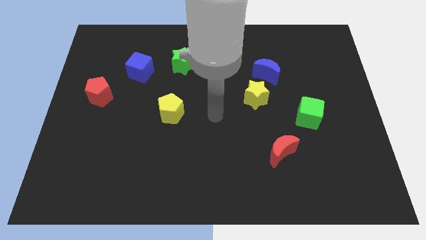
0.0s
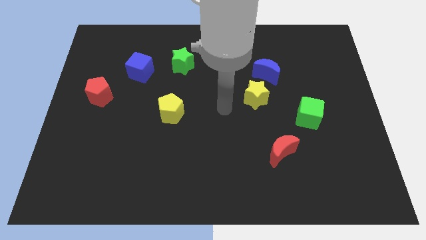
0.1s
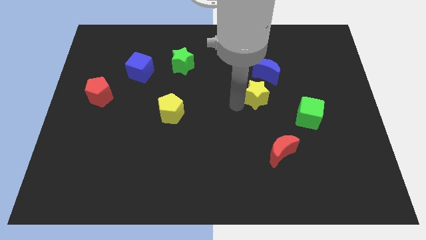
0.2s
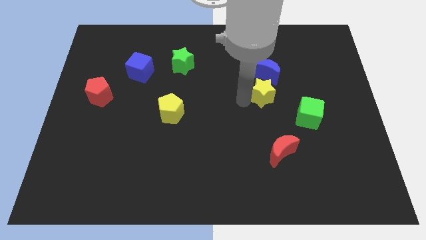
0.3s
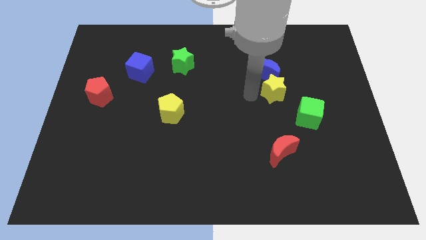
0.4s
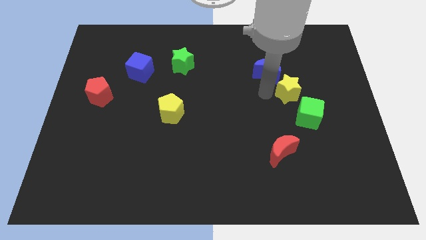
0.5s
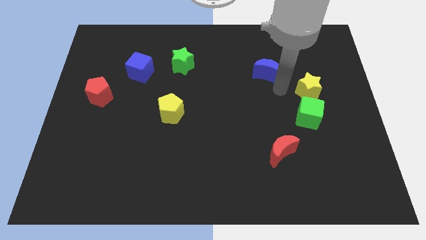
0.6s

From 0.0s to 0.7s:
pull the blue moon apart from the yellow star

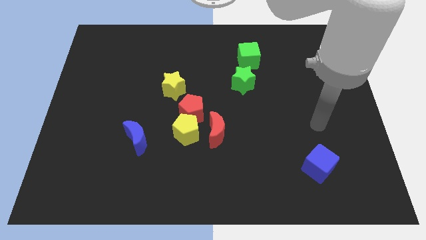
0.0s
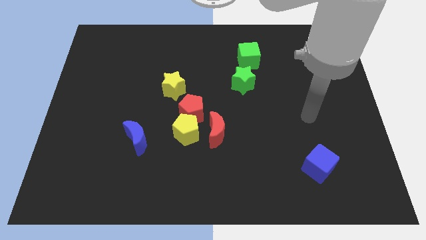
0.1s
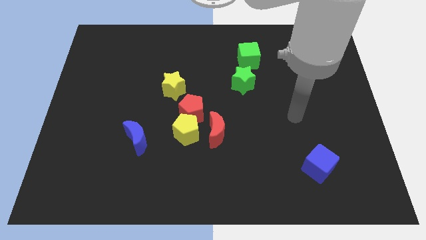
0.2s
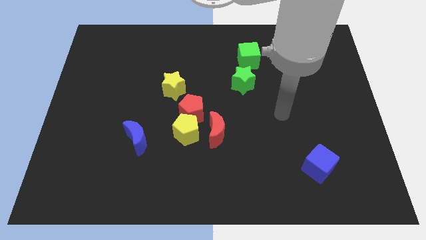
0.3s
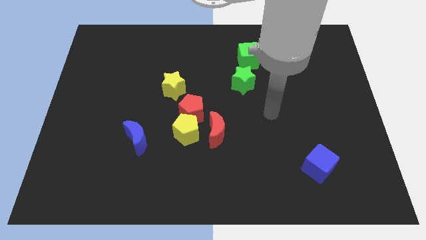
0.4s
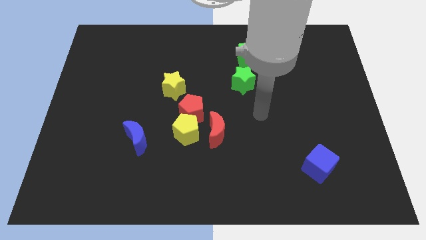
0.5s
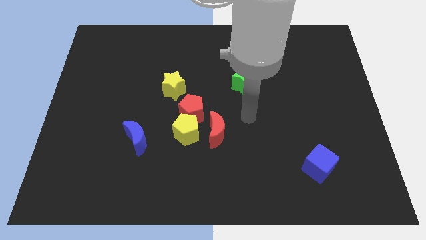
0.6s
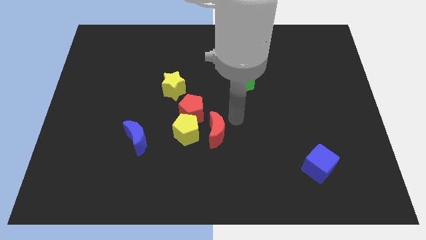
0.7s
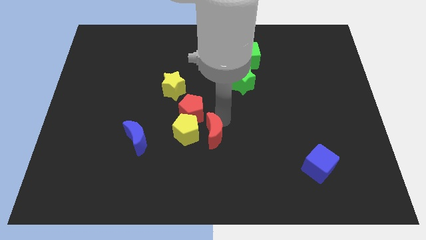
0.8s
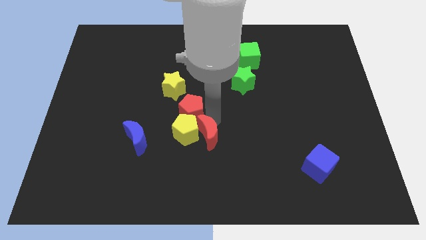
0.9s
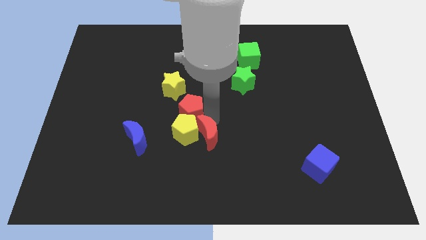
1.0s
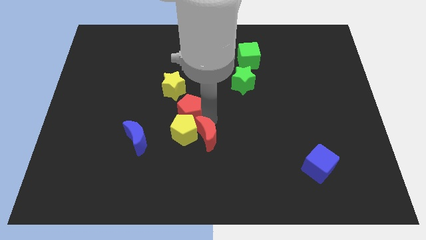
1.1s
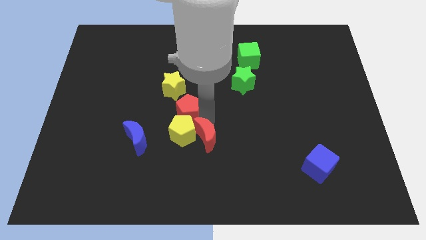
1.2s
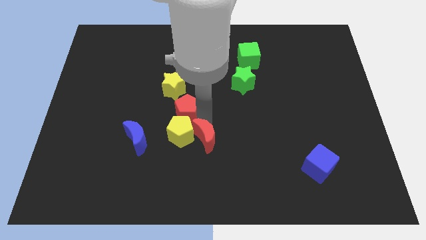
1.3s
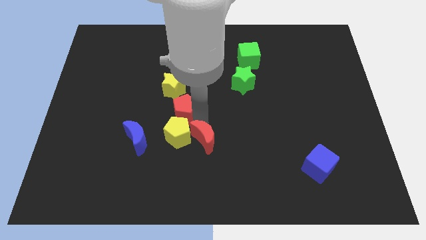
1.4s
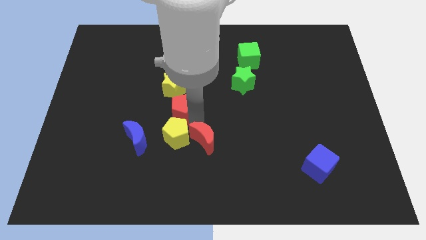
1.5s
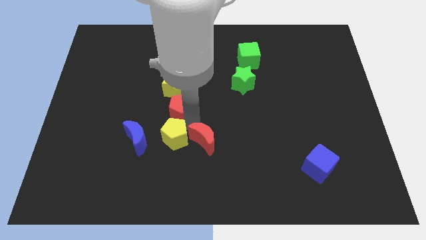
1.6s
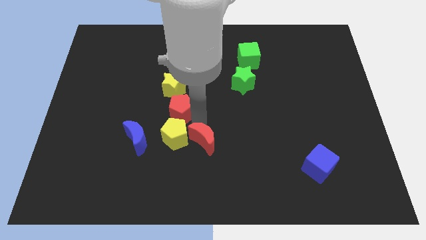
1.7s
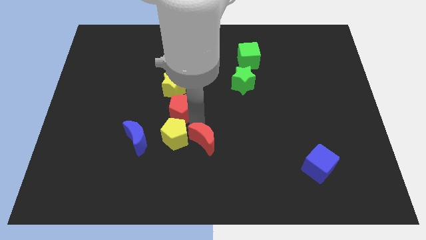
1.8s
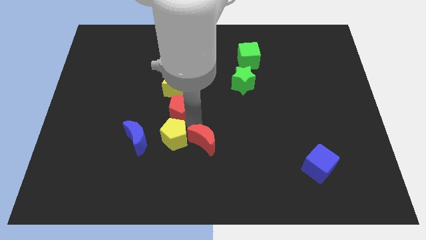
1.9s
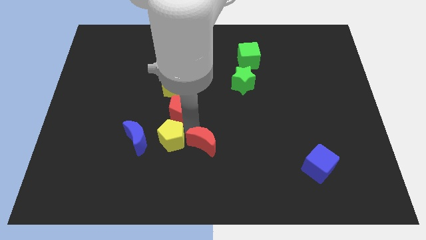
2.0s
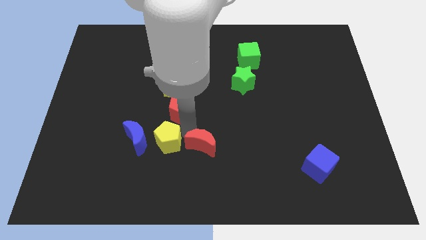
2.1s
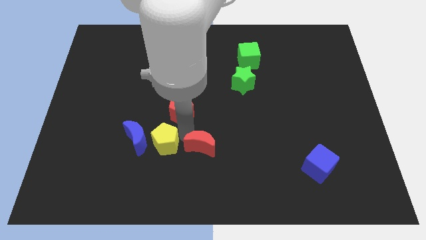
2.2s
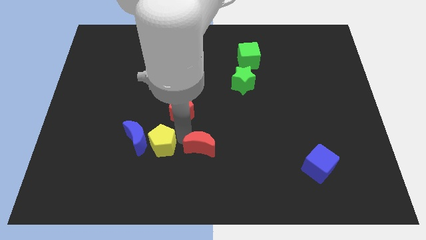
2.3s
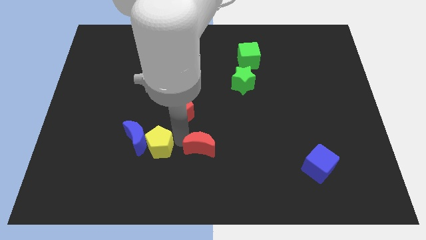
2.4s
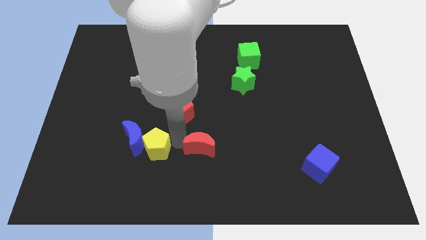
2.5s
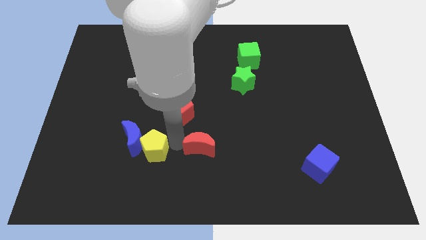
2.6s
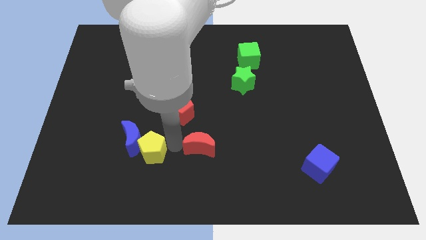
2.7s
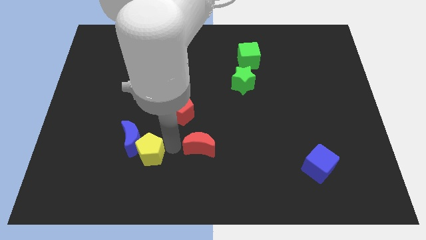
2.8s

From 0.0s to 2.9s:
move the yellow pentagon away from the red pentagon and red moon

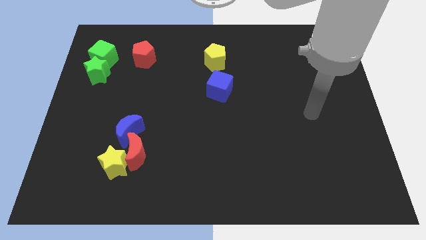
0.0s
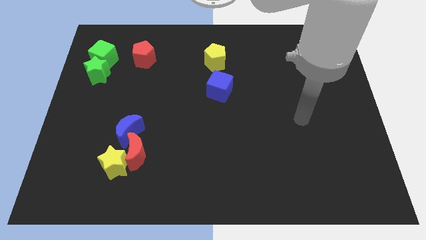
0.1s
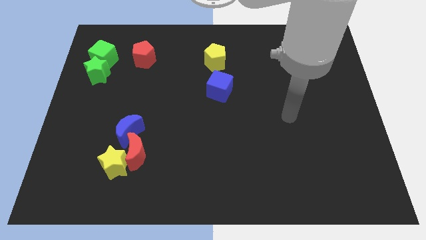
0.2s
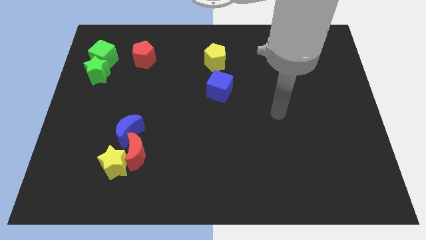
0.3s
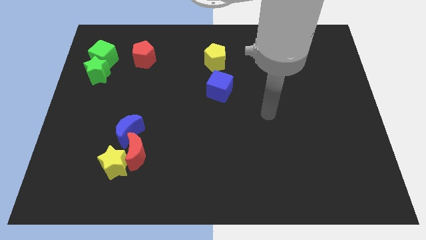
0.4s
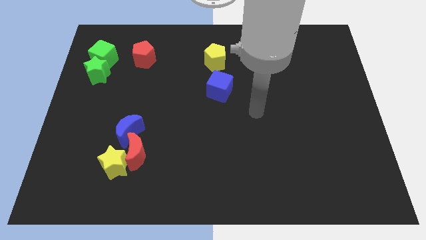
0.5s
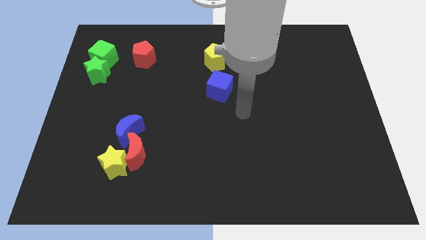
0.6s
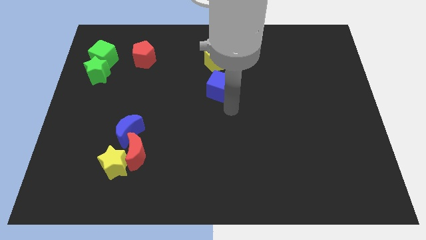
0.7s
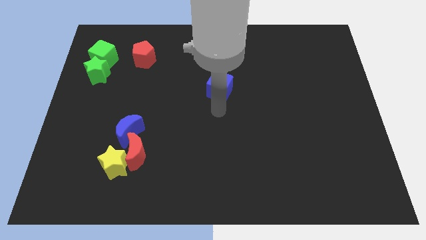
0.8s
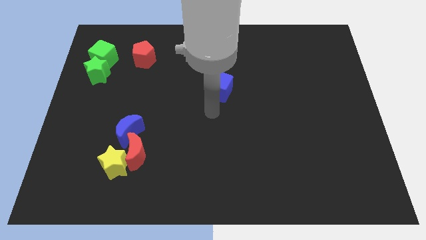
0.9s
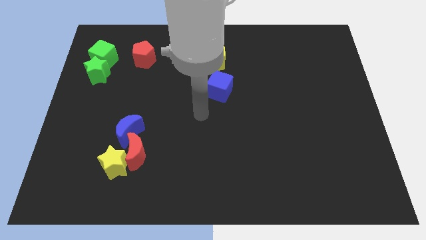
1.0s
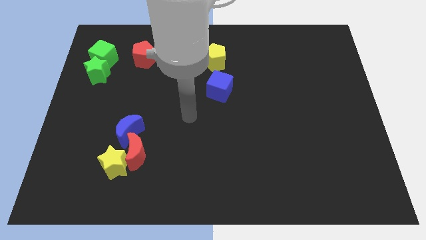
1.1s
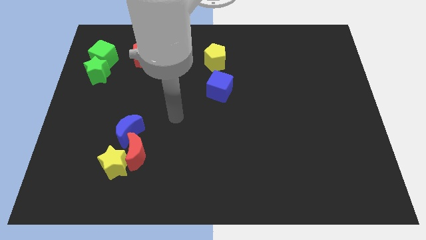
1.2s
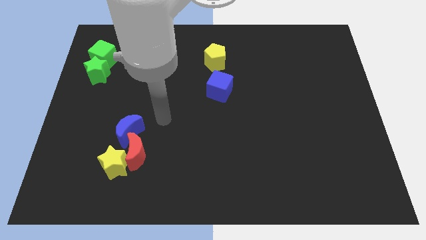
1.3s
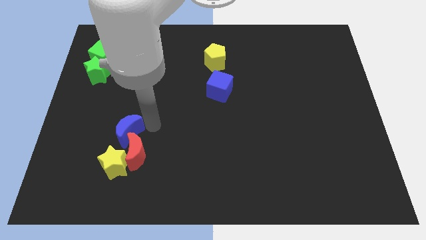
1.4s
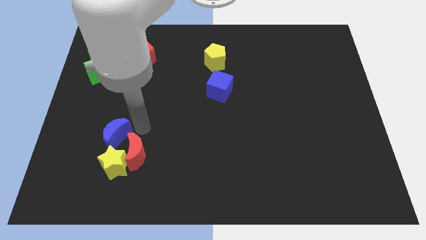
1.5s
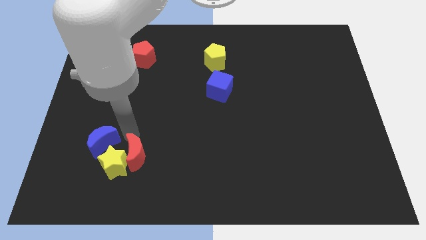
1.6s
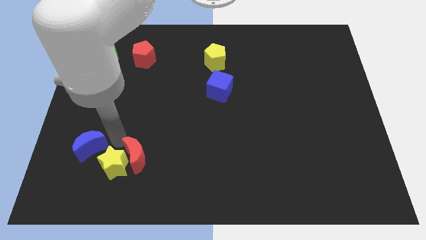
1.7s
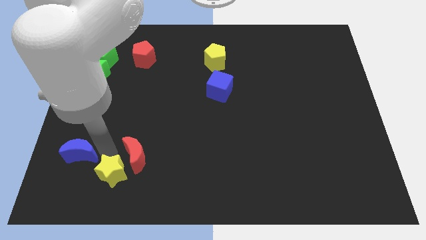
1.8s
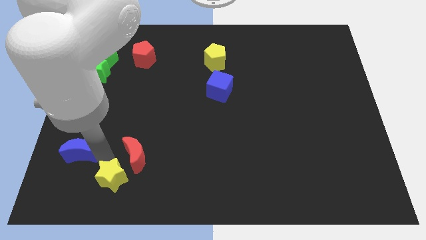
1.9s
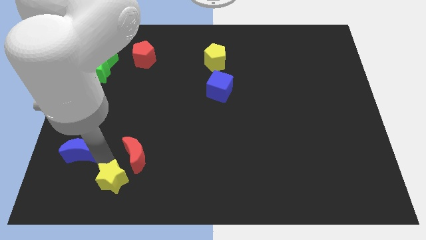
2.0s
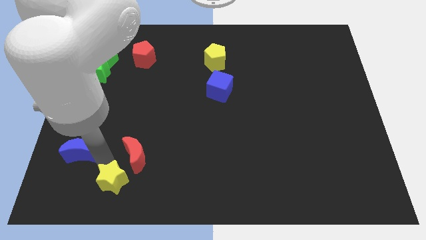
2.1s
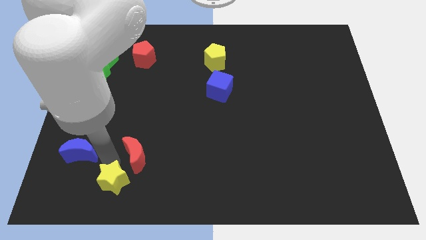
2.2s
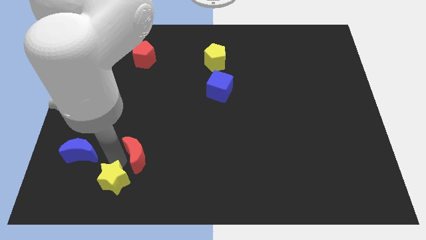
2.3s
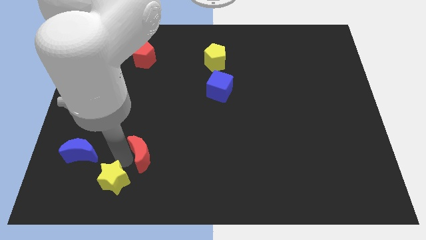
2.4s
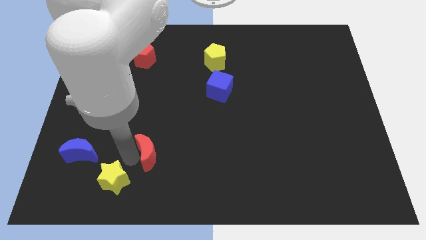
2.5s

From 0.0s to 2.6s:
separate the red moon from the yellow star and blue moon

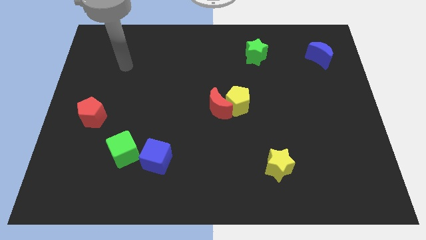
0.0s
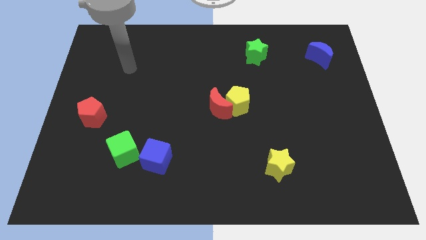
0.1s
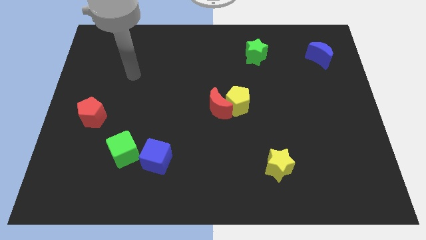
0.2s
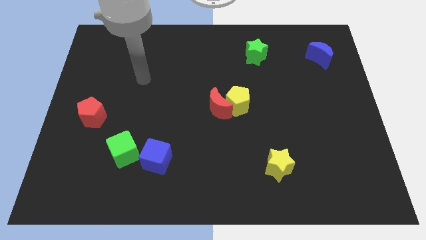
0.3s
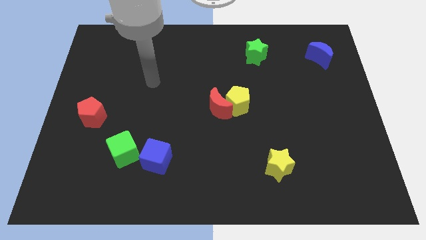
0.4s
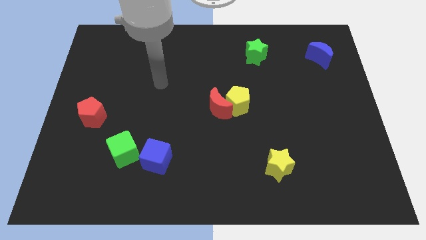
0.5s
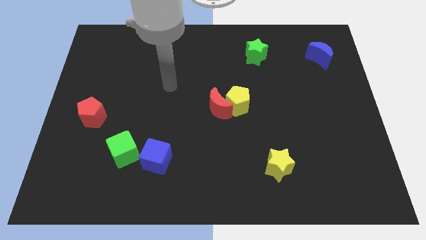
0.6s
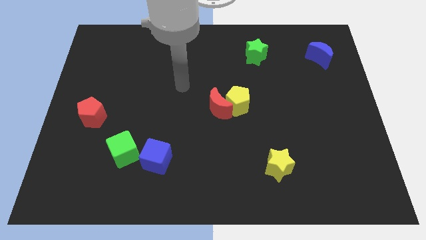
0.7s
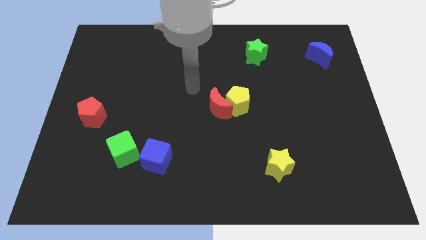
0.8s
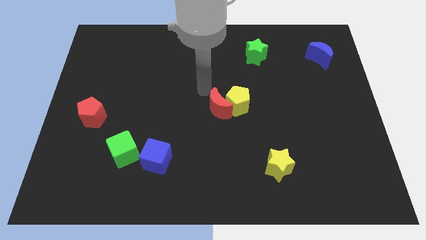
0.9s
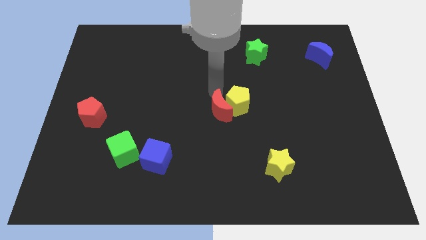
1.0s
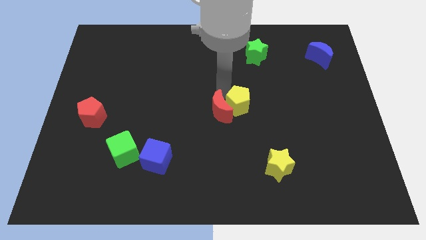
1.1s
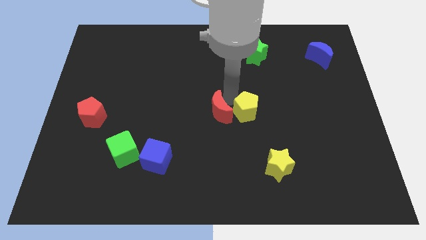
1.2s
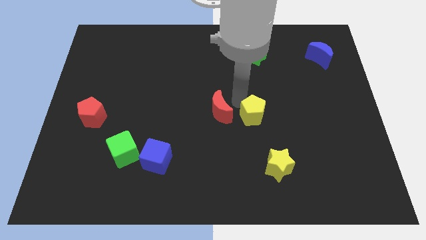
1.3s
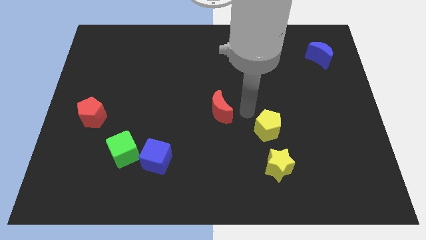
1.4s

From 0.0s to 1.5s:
move the red moon away from the yellow pentagon

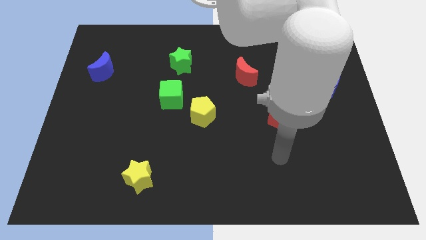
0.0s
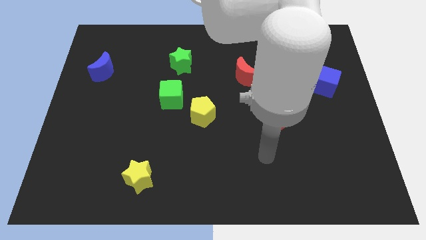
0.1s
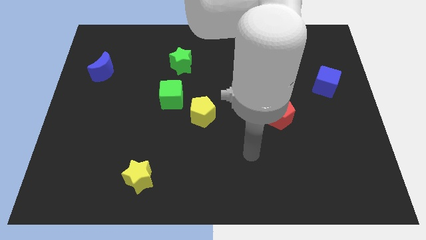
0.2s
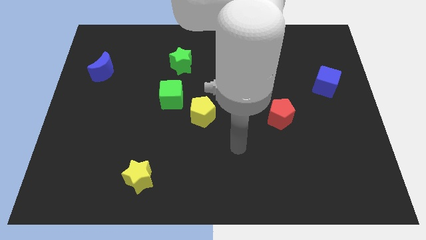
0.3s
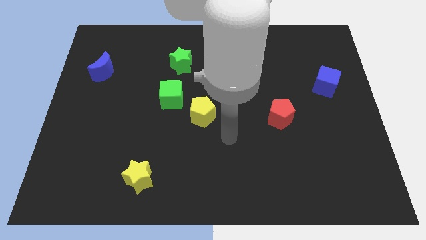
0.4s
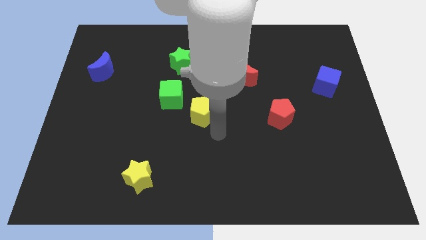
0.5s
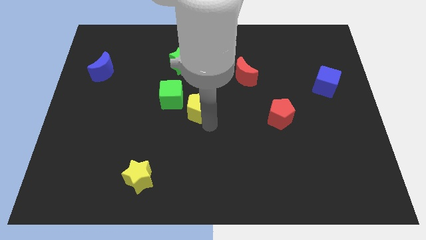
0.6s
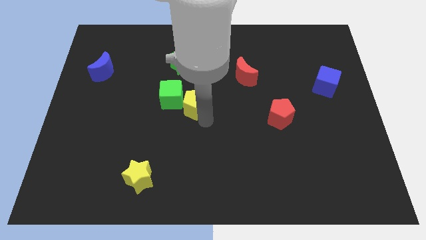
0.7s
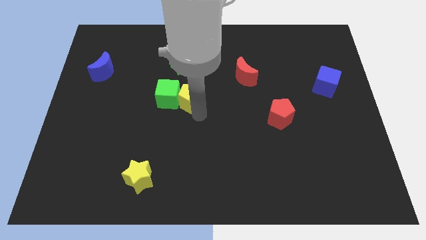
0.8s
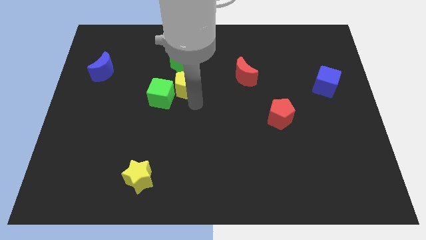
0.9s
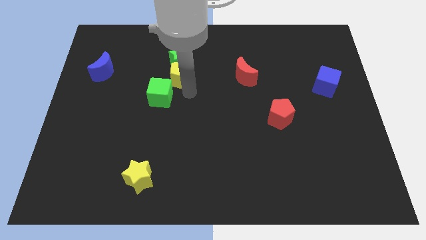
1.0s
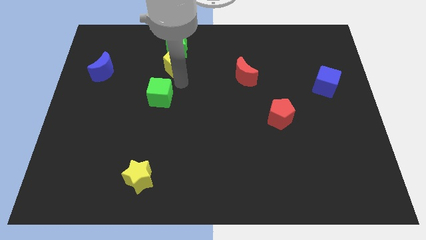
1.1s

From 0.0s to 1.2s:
pull the green cube apart from the yellow pentagon

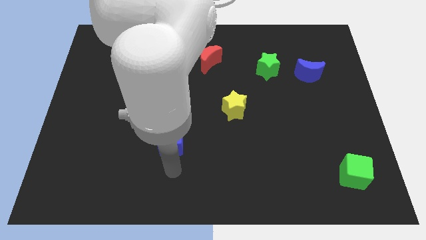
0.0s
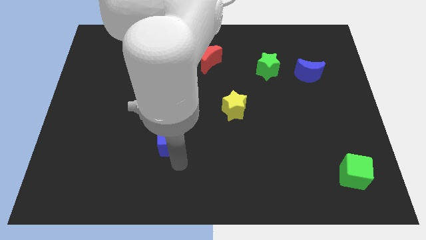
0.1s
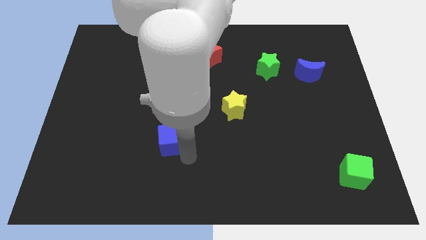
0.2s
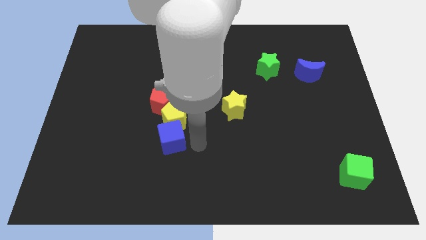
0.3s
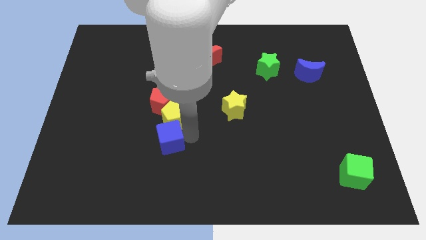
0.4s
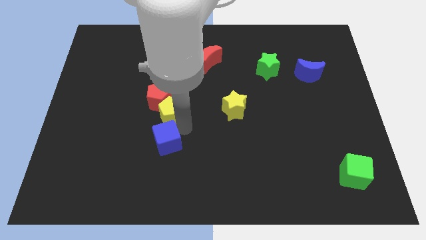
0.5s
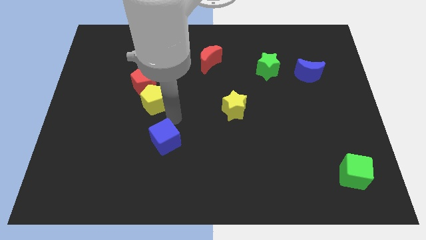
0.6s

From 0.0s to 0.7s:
separate the blue cube from the yellow pentagon
